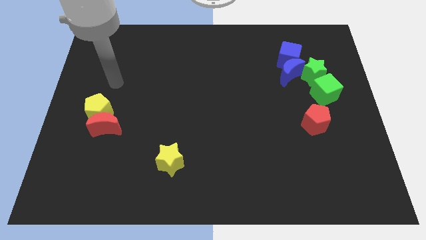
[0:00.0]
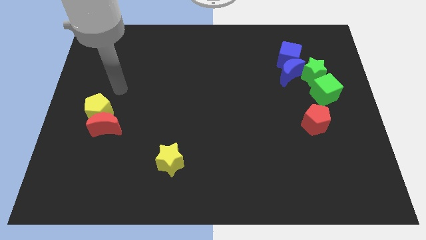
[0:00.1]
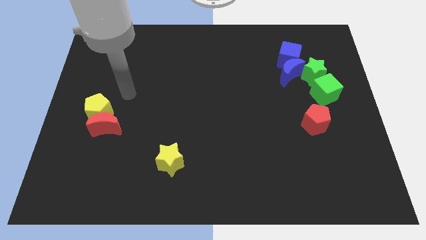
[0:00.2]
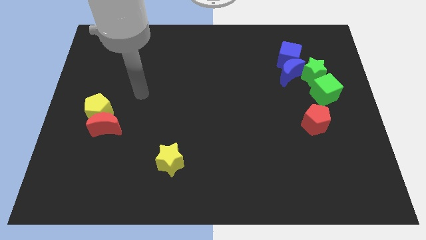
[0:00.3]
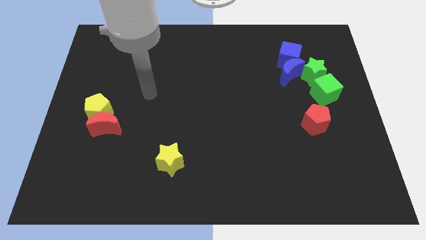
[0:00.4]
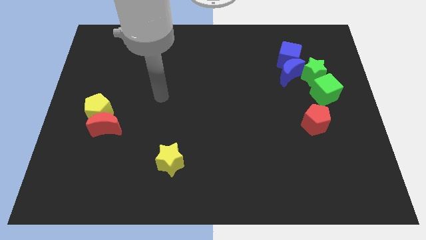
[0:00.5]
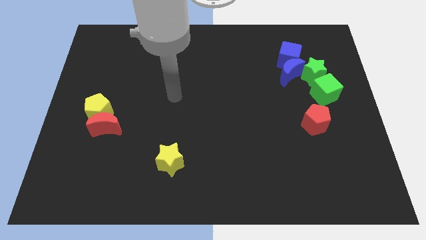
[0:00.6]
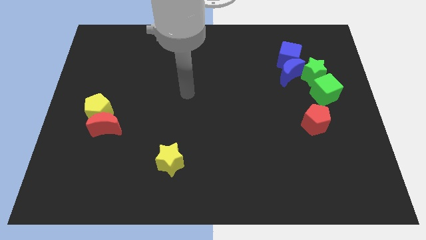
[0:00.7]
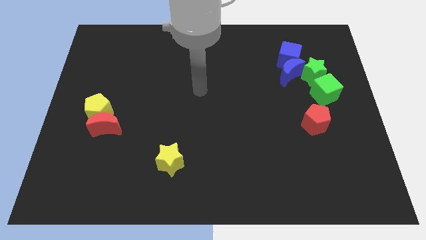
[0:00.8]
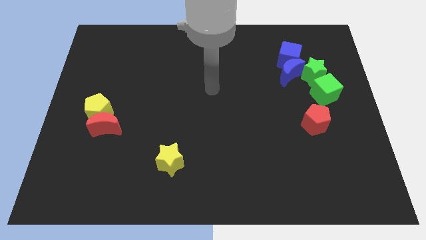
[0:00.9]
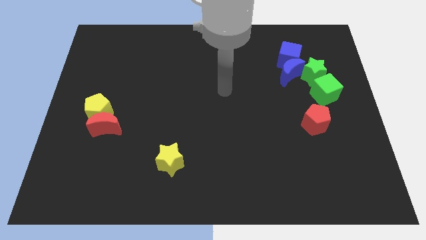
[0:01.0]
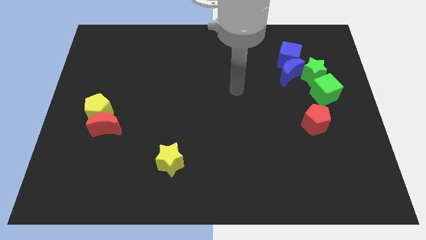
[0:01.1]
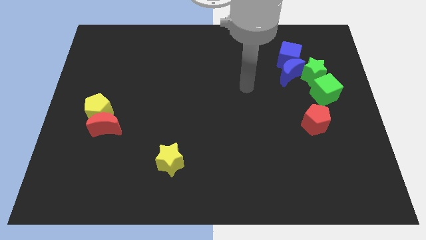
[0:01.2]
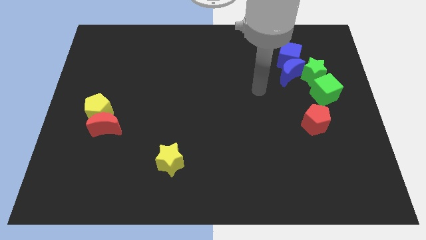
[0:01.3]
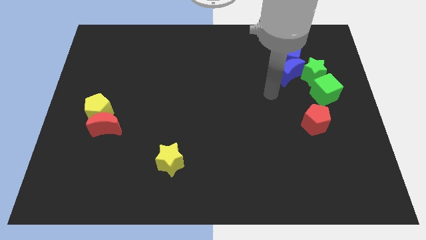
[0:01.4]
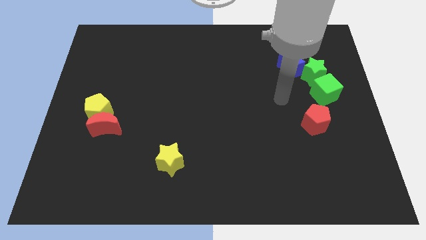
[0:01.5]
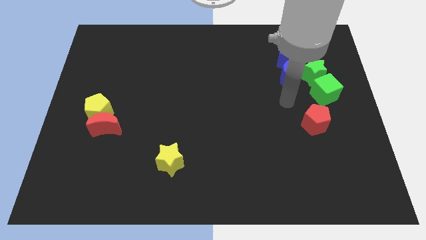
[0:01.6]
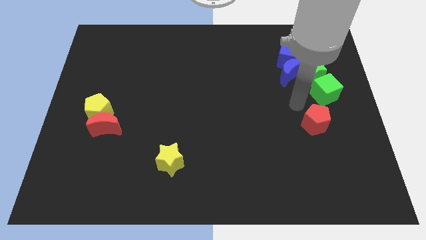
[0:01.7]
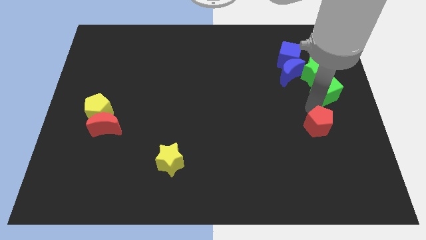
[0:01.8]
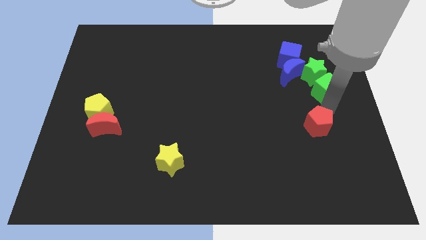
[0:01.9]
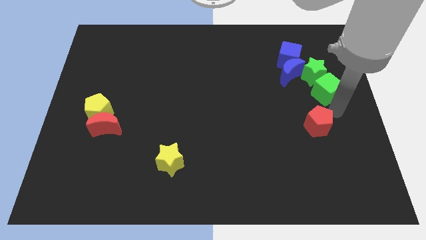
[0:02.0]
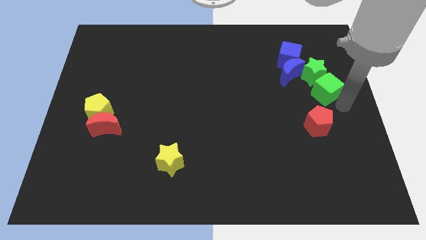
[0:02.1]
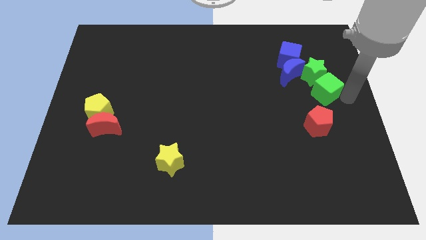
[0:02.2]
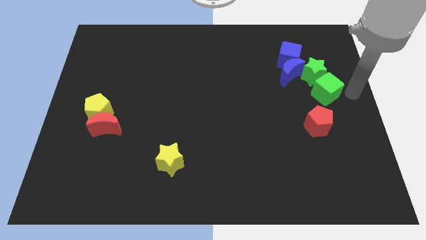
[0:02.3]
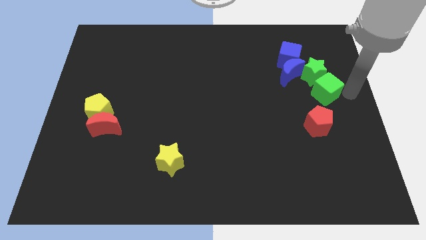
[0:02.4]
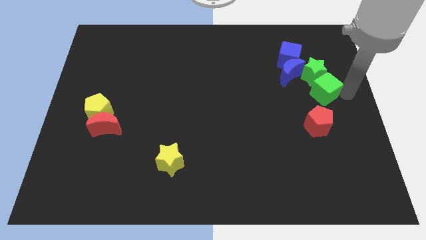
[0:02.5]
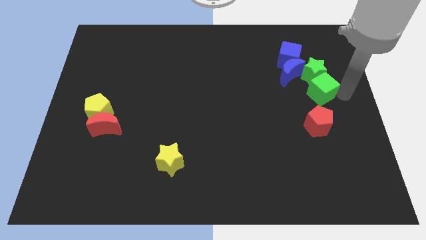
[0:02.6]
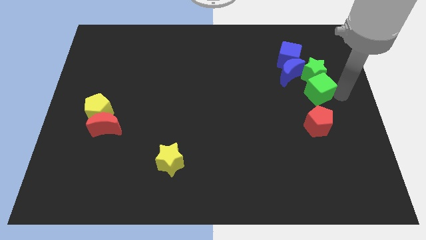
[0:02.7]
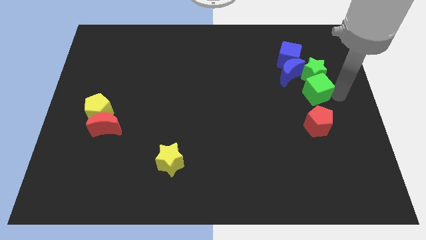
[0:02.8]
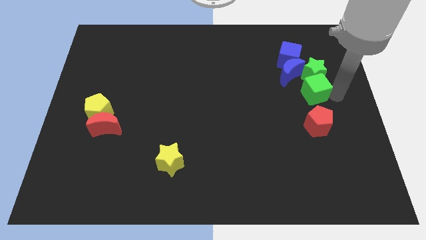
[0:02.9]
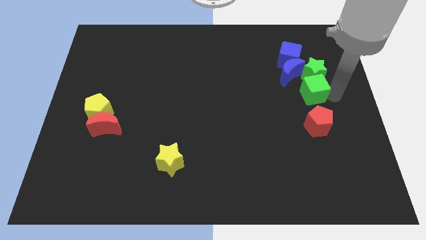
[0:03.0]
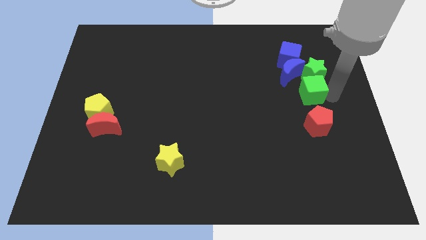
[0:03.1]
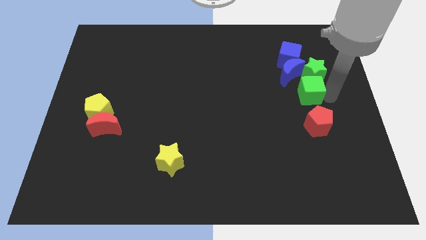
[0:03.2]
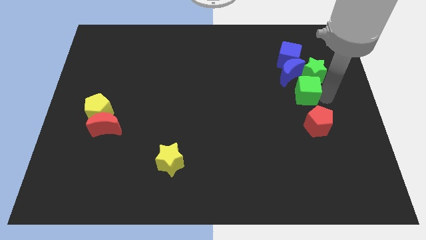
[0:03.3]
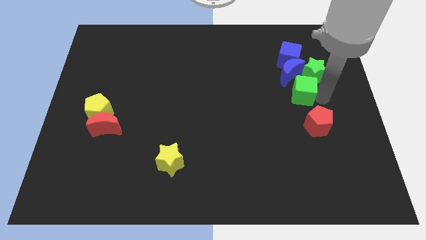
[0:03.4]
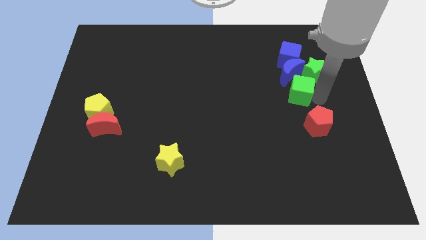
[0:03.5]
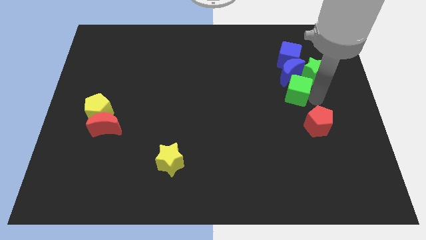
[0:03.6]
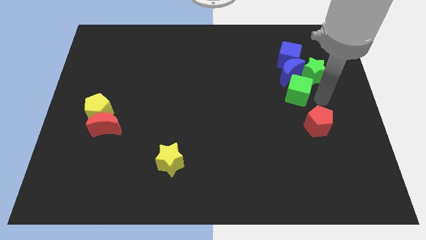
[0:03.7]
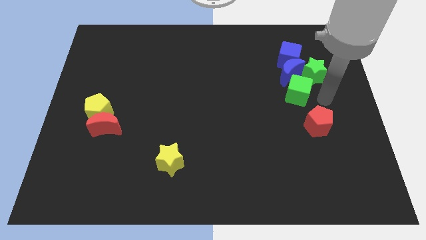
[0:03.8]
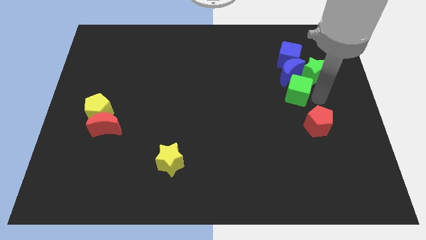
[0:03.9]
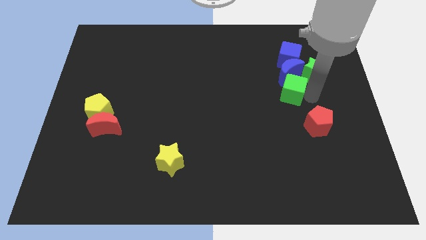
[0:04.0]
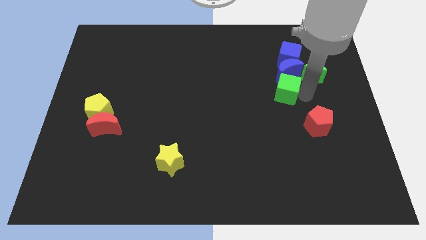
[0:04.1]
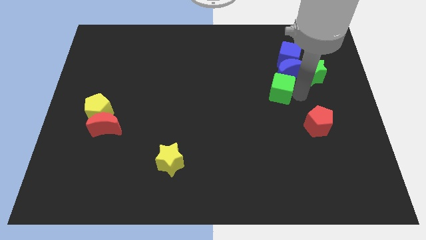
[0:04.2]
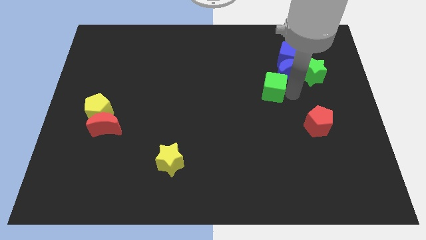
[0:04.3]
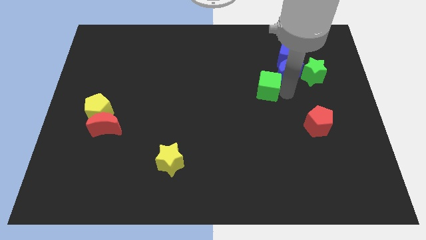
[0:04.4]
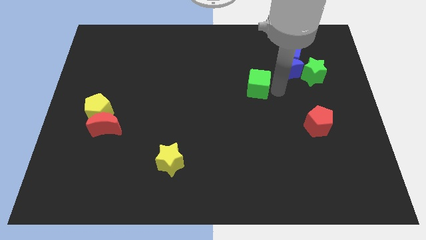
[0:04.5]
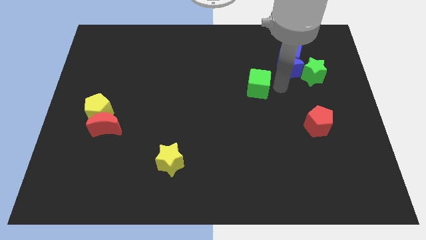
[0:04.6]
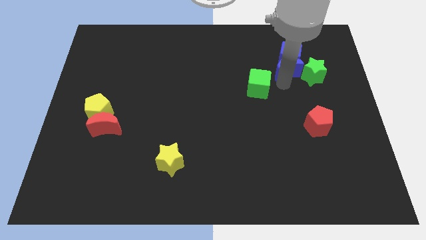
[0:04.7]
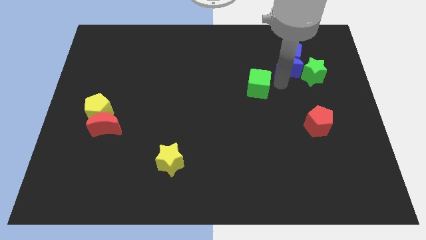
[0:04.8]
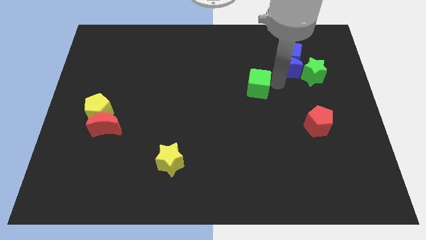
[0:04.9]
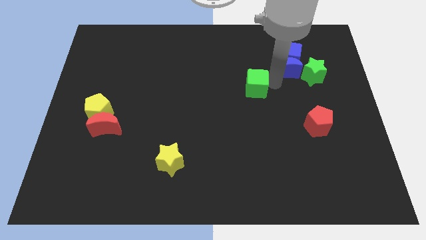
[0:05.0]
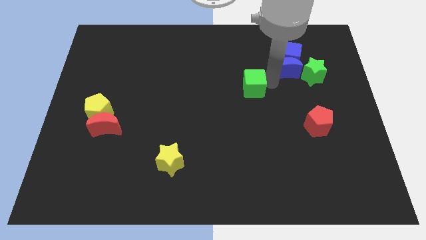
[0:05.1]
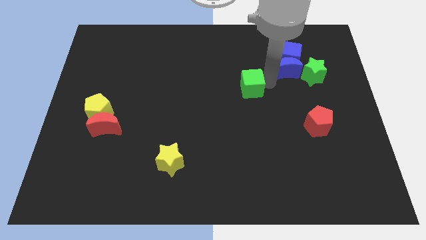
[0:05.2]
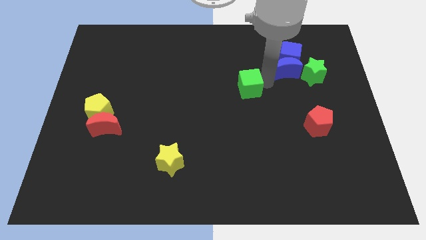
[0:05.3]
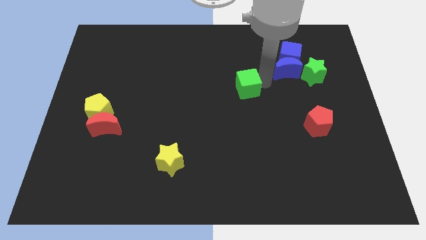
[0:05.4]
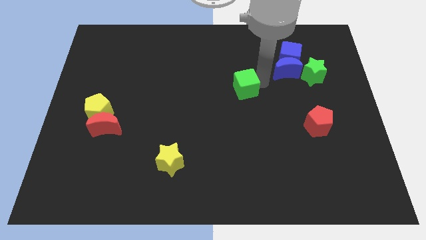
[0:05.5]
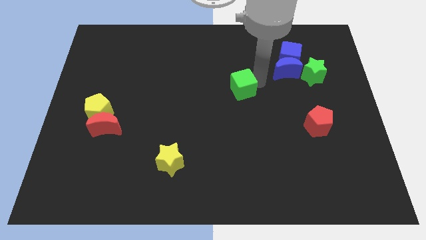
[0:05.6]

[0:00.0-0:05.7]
slide the green cube to the left
